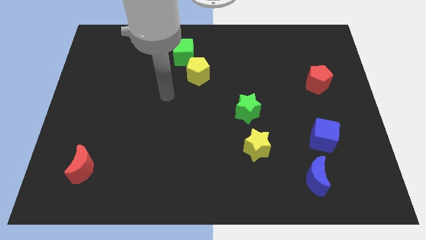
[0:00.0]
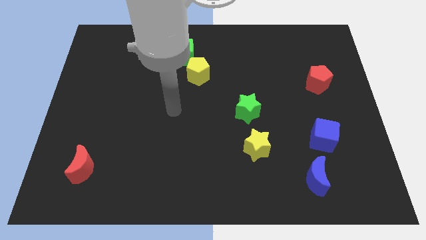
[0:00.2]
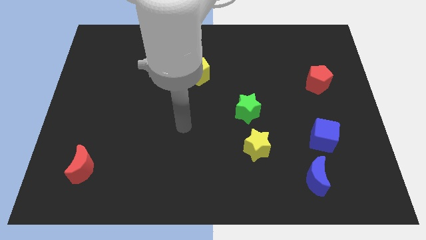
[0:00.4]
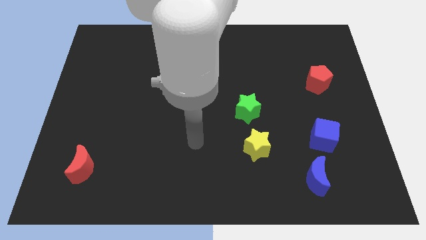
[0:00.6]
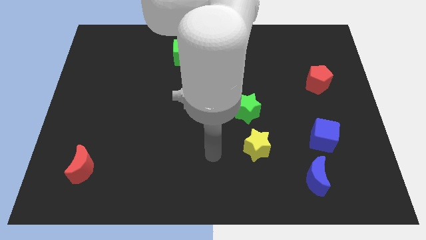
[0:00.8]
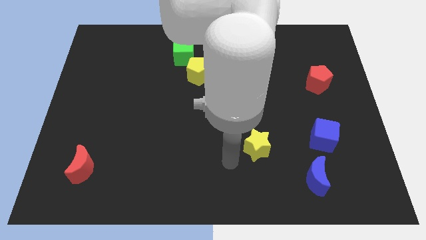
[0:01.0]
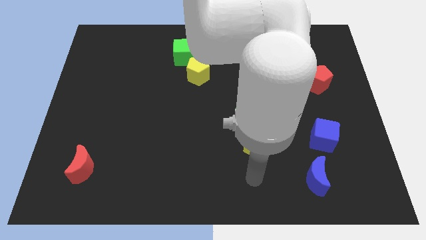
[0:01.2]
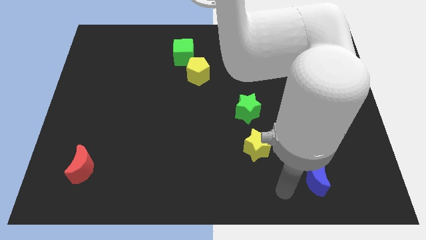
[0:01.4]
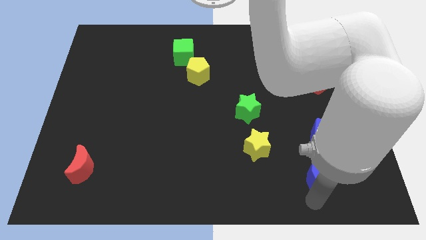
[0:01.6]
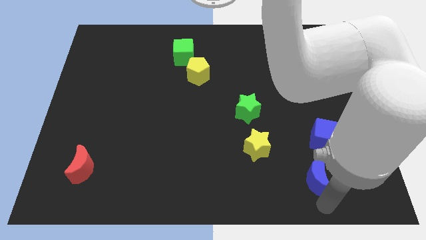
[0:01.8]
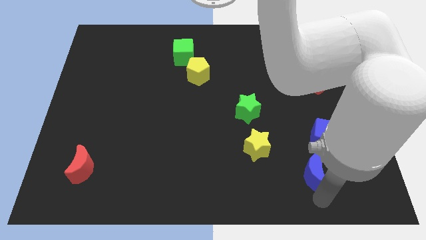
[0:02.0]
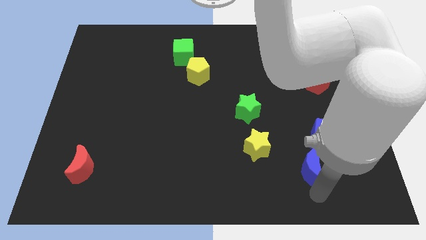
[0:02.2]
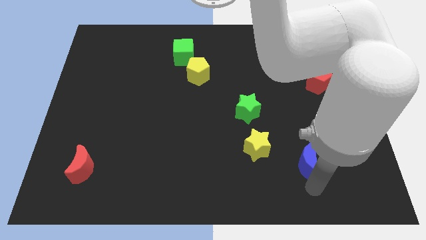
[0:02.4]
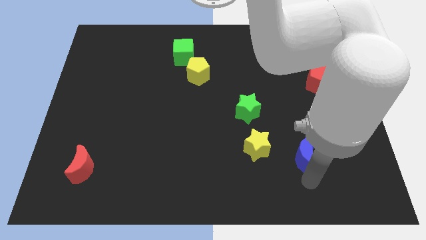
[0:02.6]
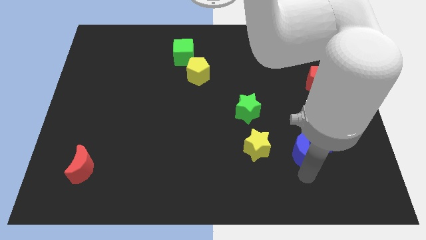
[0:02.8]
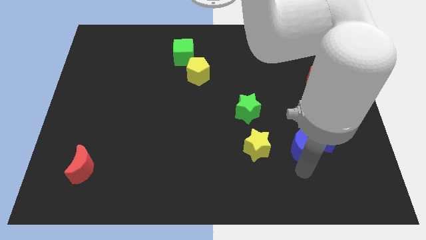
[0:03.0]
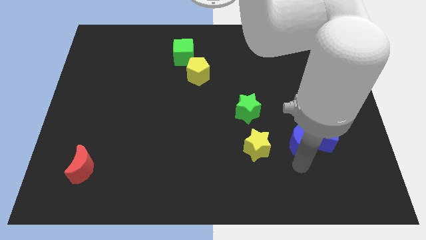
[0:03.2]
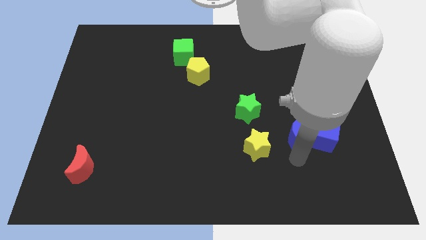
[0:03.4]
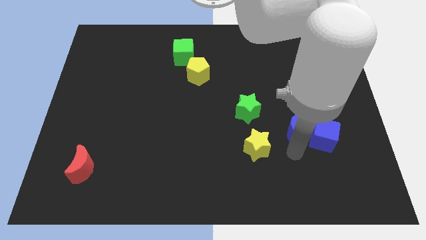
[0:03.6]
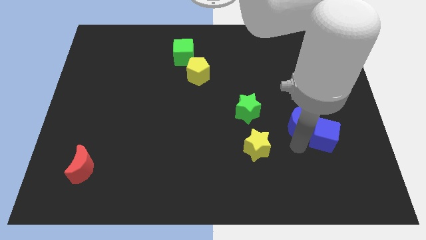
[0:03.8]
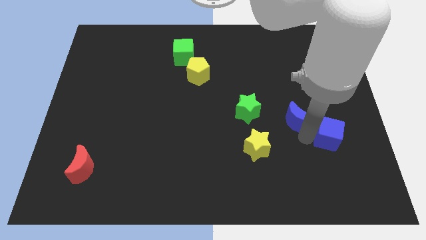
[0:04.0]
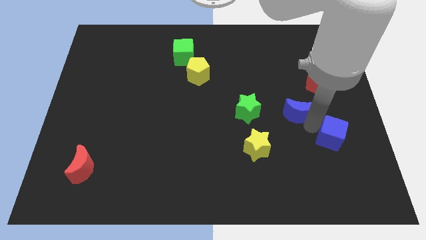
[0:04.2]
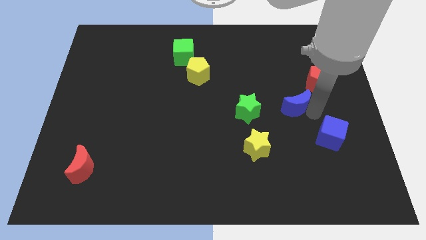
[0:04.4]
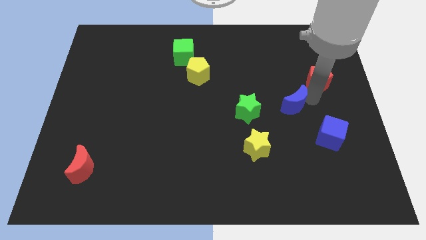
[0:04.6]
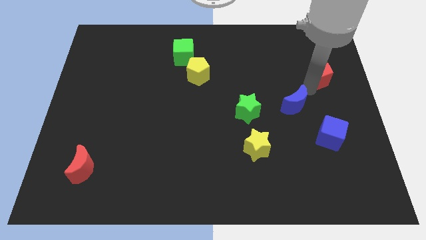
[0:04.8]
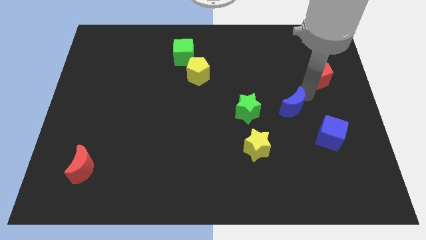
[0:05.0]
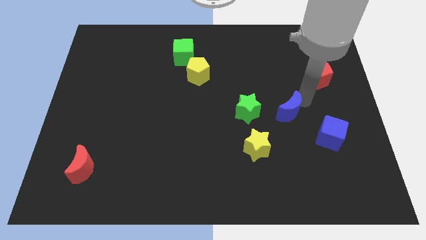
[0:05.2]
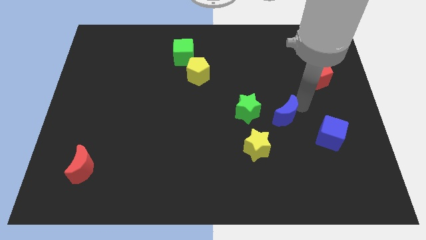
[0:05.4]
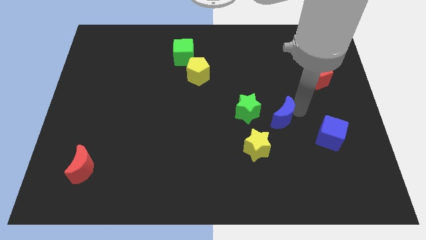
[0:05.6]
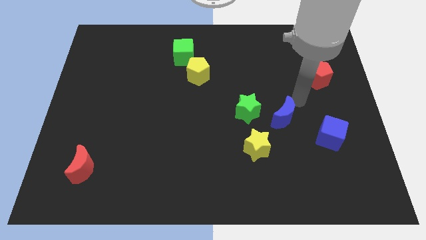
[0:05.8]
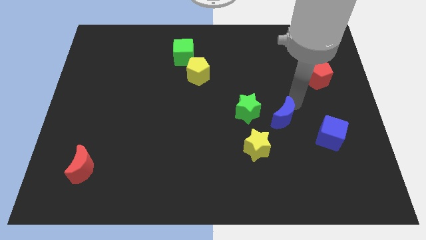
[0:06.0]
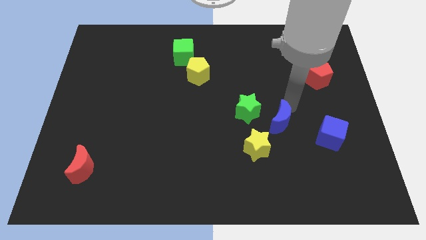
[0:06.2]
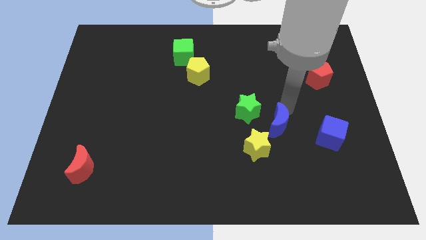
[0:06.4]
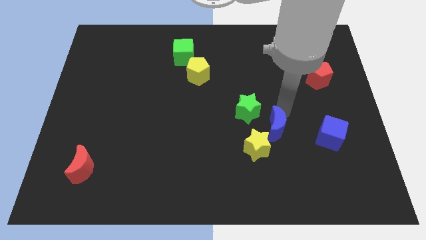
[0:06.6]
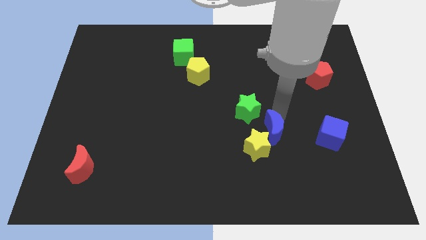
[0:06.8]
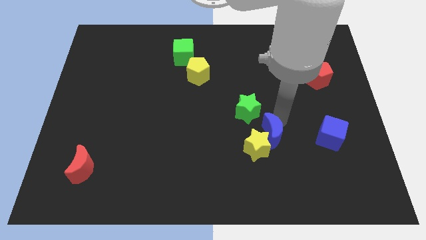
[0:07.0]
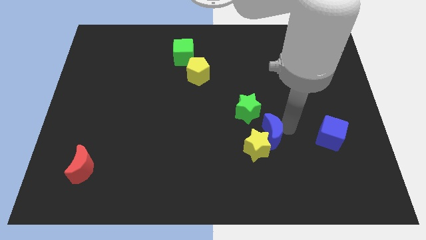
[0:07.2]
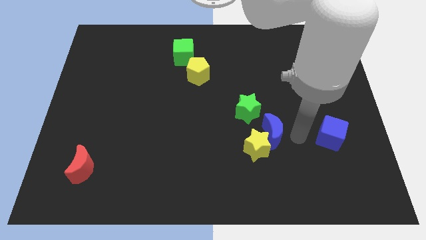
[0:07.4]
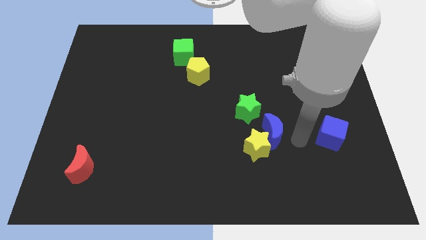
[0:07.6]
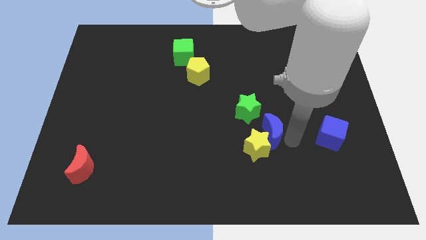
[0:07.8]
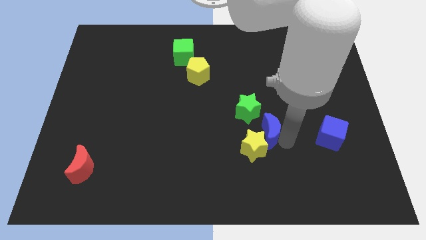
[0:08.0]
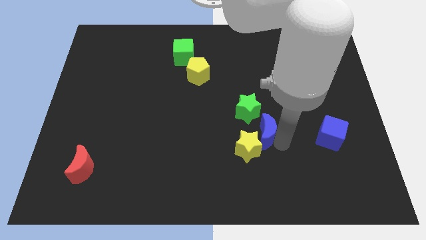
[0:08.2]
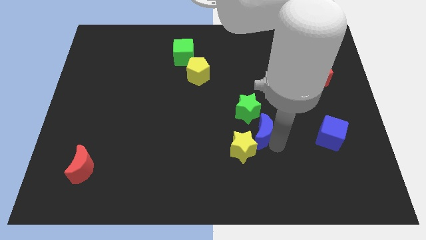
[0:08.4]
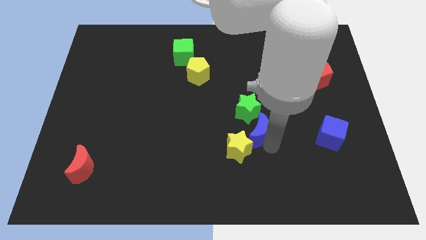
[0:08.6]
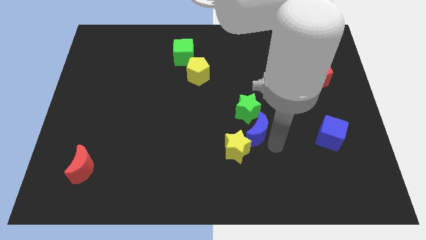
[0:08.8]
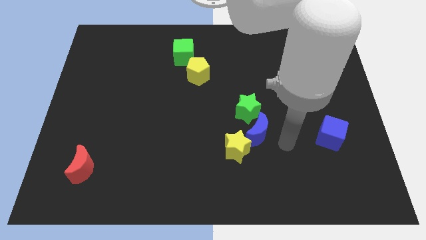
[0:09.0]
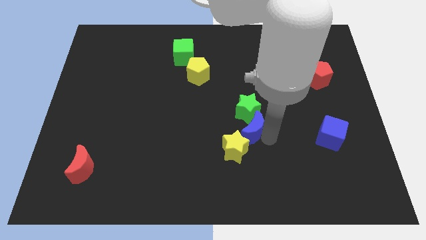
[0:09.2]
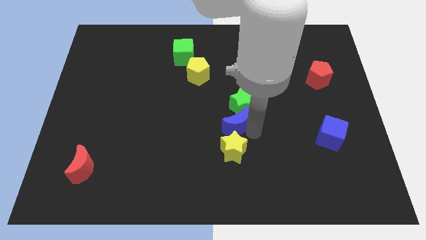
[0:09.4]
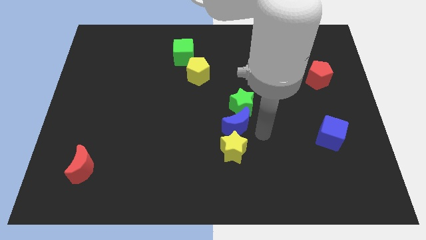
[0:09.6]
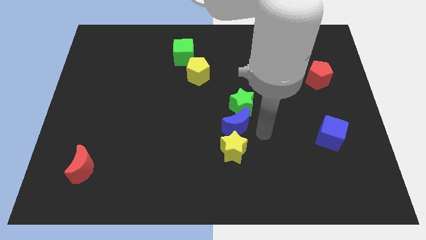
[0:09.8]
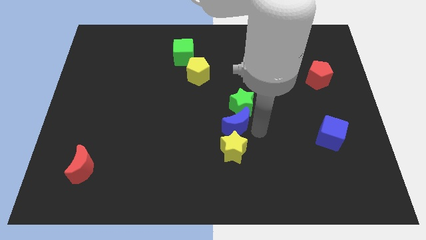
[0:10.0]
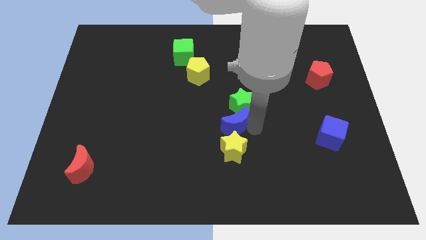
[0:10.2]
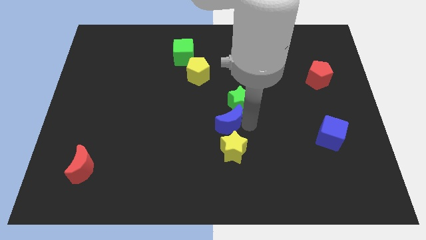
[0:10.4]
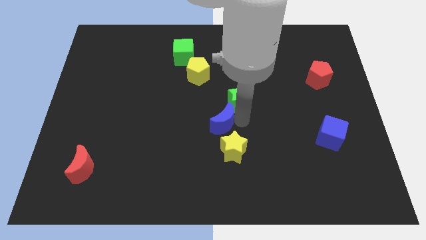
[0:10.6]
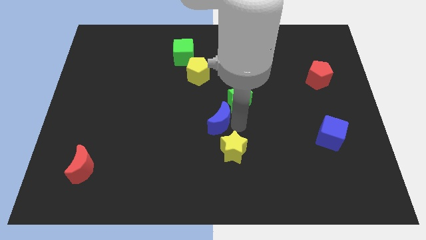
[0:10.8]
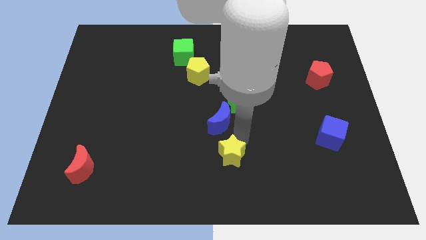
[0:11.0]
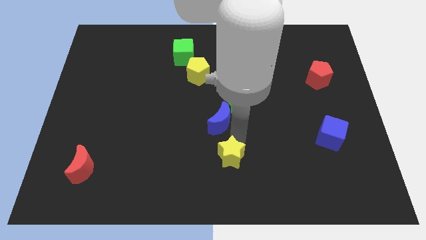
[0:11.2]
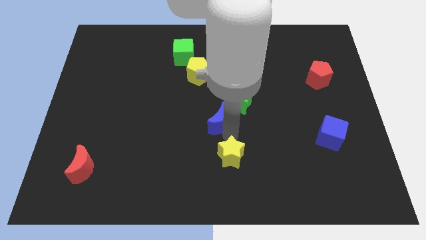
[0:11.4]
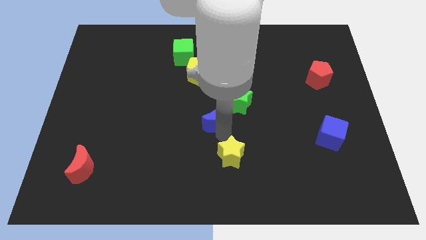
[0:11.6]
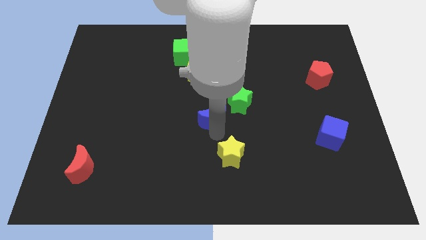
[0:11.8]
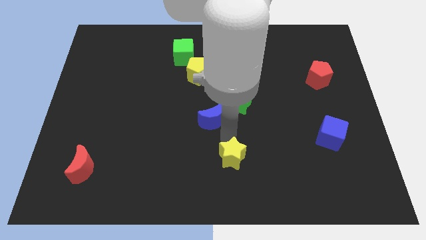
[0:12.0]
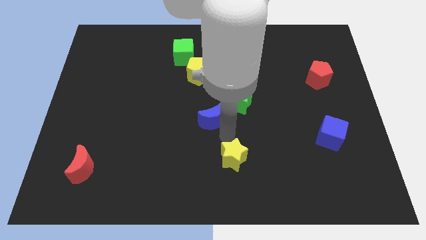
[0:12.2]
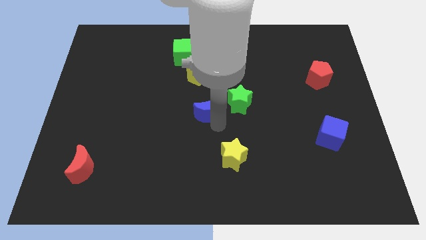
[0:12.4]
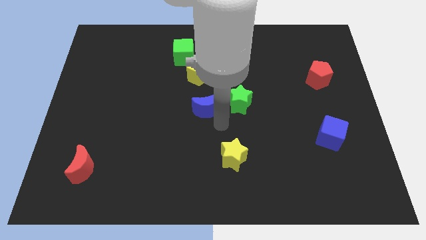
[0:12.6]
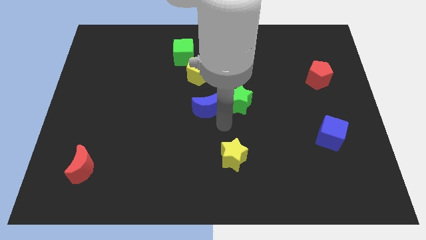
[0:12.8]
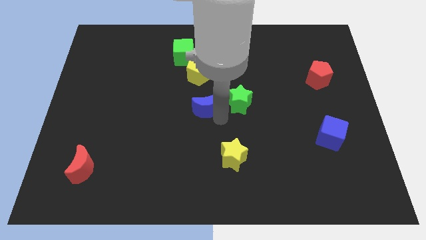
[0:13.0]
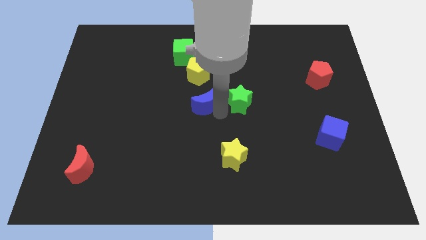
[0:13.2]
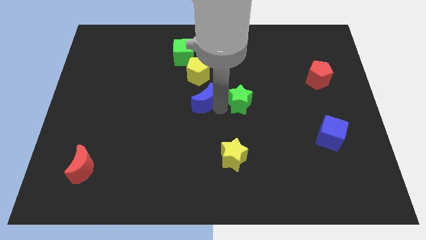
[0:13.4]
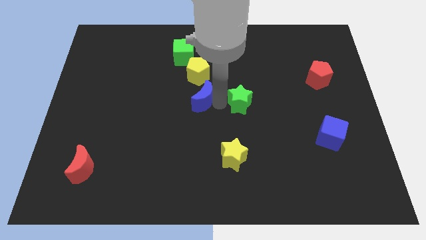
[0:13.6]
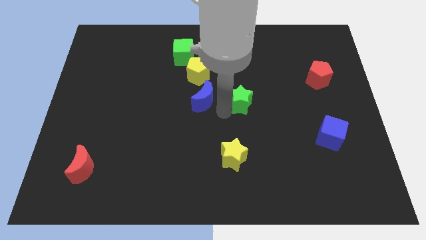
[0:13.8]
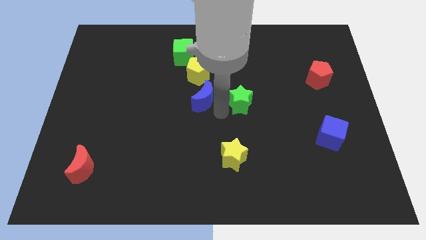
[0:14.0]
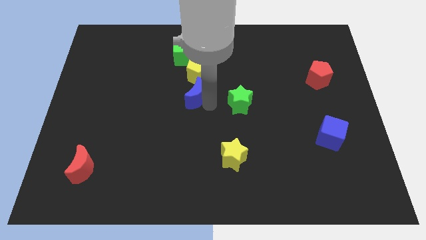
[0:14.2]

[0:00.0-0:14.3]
move the blue moon to the bottom side of the green cube
